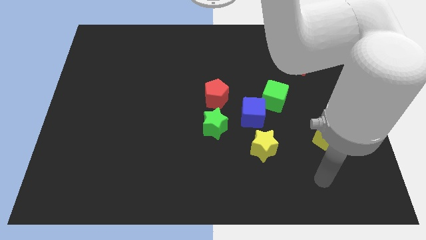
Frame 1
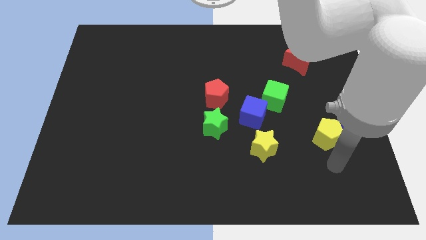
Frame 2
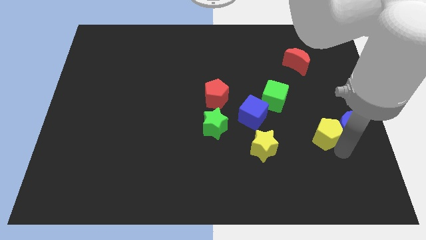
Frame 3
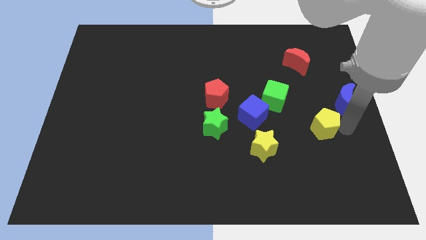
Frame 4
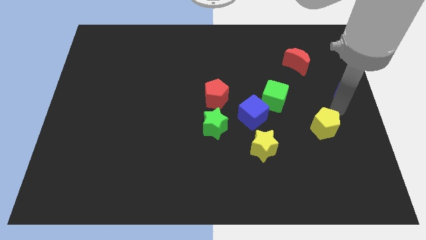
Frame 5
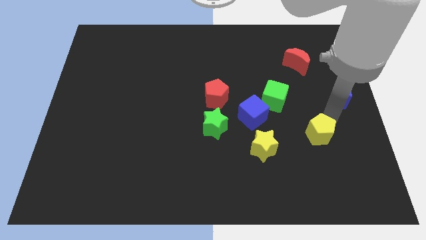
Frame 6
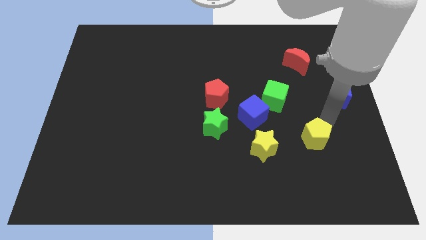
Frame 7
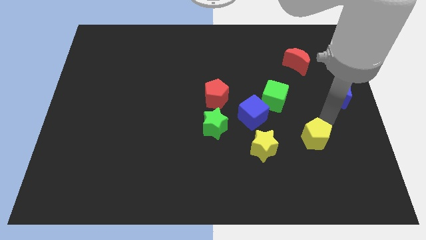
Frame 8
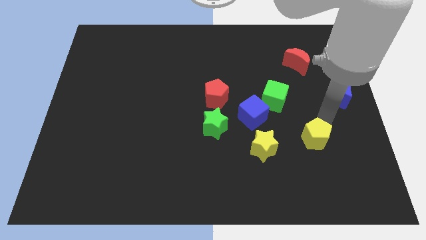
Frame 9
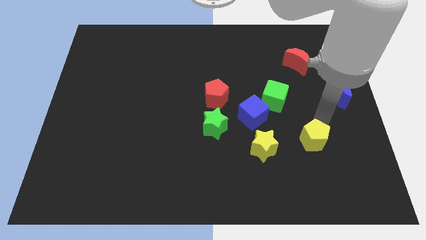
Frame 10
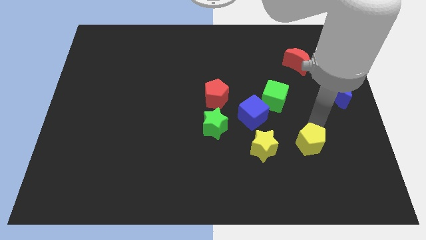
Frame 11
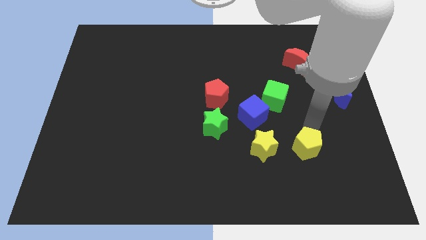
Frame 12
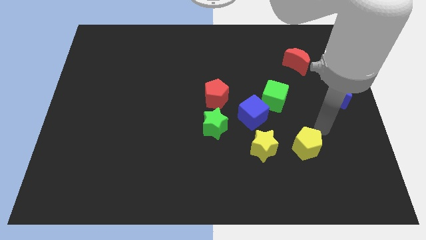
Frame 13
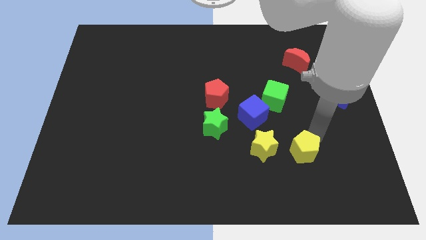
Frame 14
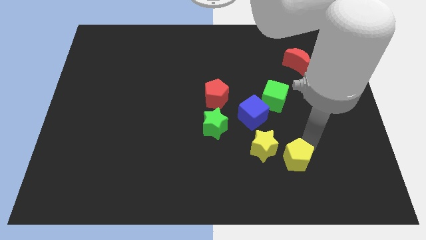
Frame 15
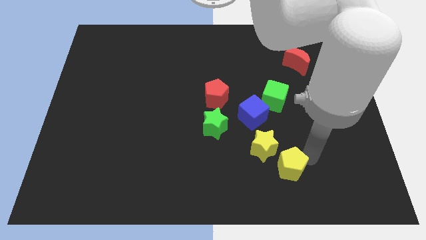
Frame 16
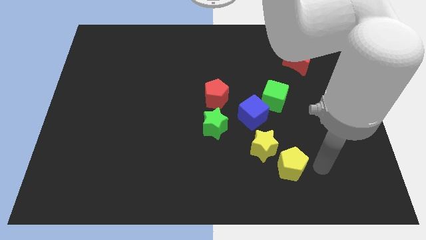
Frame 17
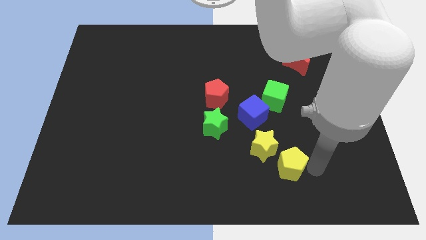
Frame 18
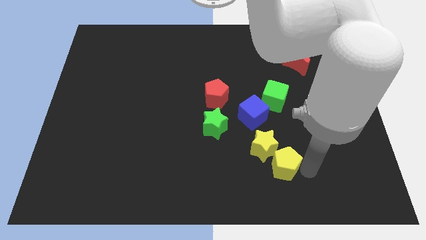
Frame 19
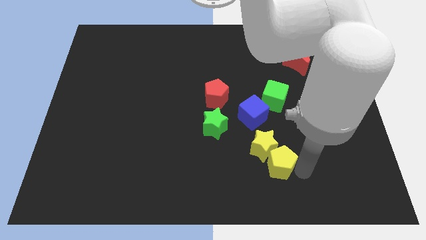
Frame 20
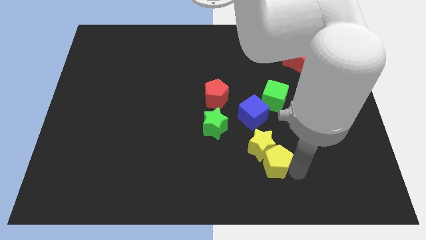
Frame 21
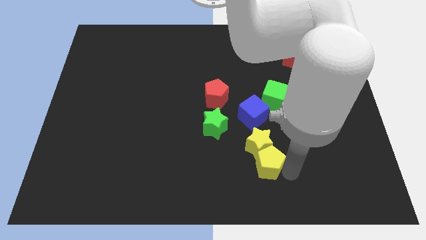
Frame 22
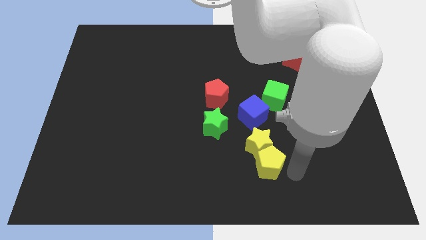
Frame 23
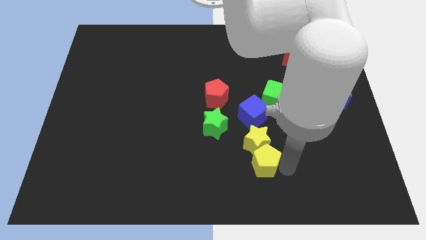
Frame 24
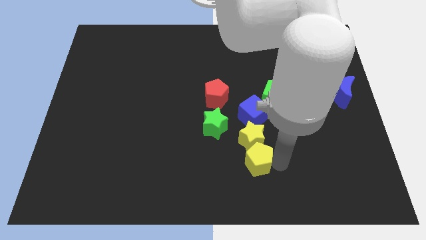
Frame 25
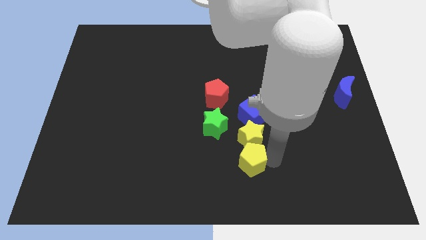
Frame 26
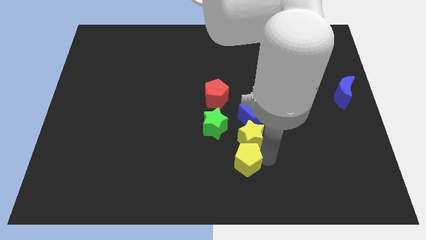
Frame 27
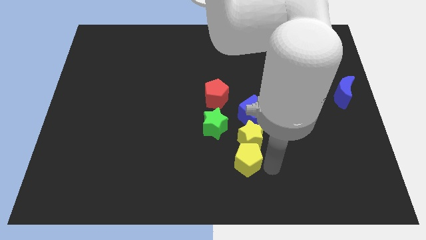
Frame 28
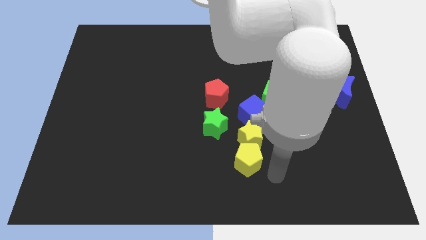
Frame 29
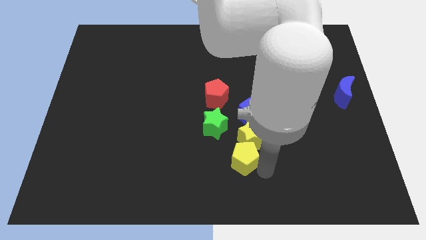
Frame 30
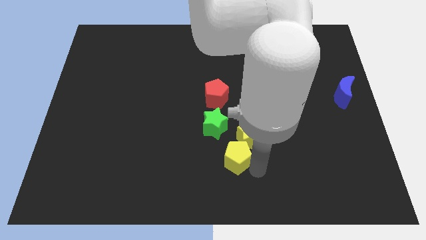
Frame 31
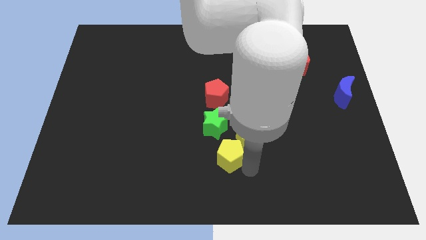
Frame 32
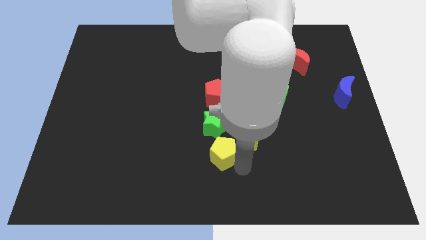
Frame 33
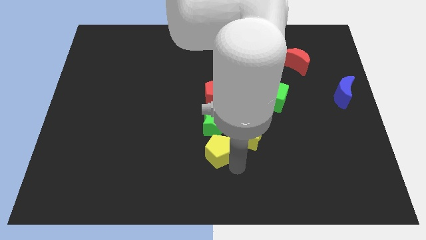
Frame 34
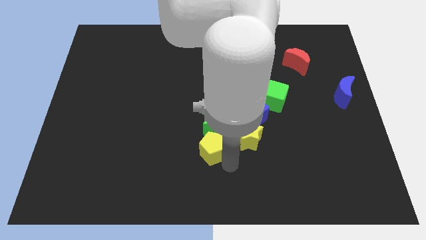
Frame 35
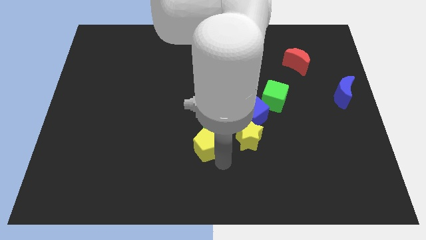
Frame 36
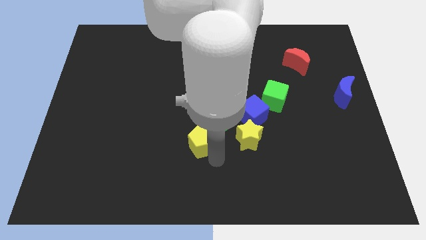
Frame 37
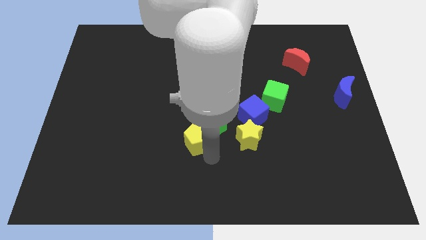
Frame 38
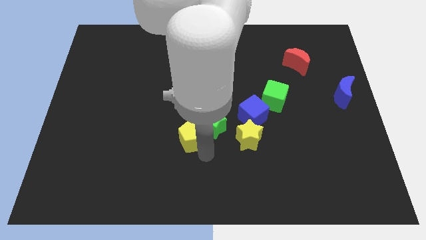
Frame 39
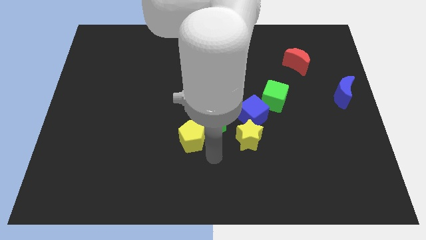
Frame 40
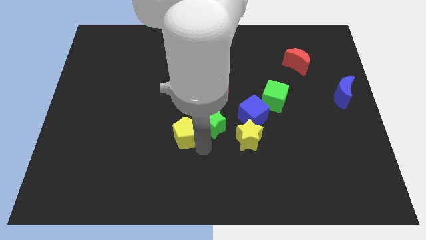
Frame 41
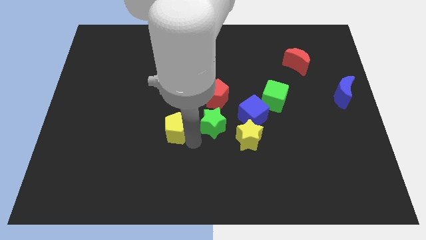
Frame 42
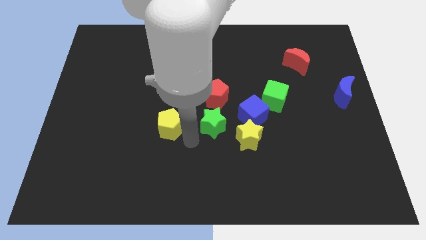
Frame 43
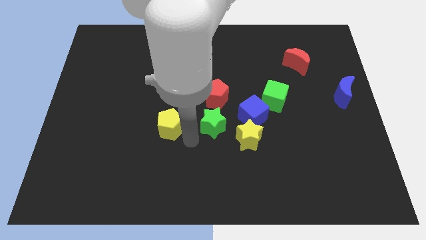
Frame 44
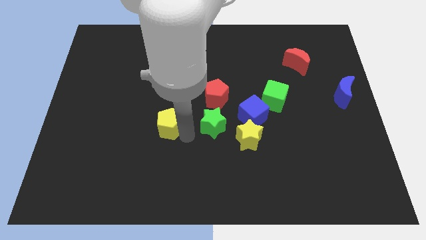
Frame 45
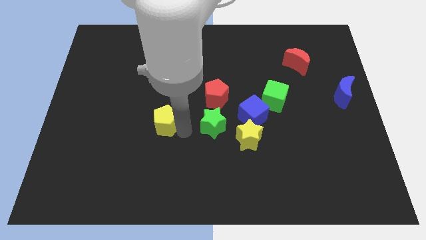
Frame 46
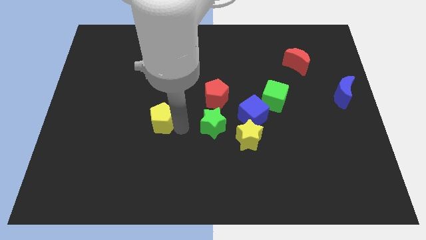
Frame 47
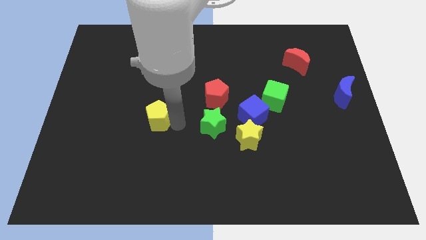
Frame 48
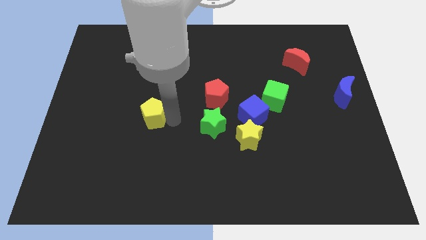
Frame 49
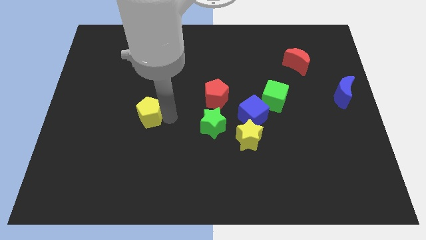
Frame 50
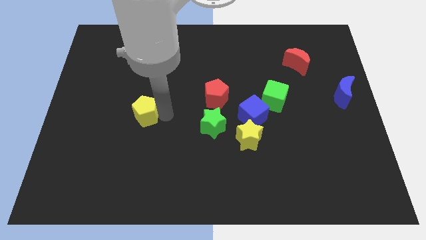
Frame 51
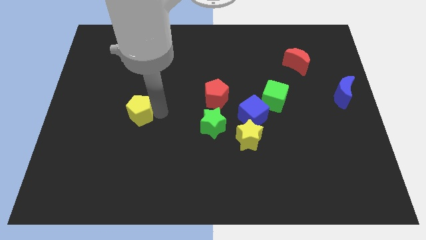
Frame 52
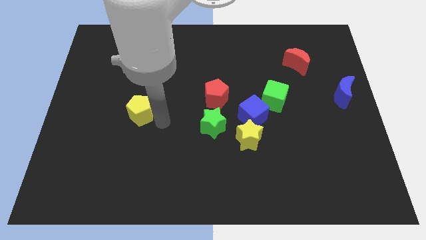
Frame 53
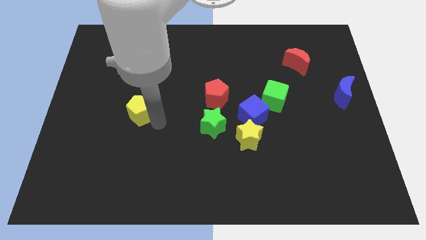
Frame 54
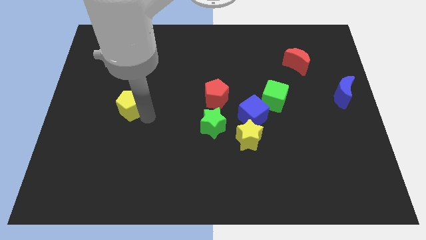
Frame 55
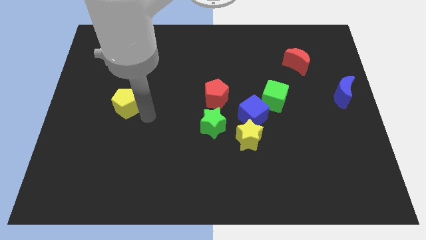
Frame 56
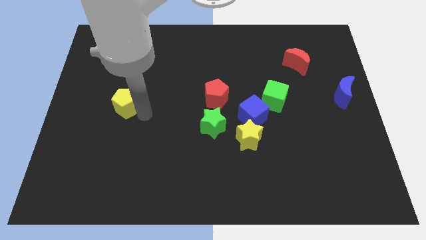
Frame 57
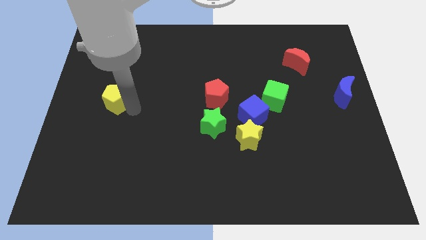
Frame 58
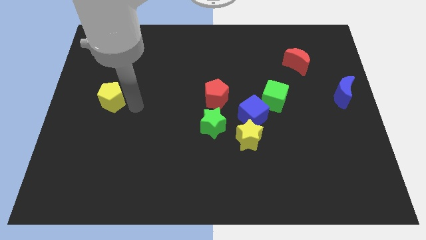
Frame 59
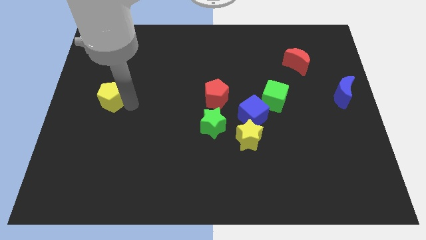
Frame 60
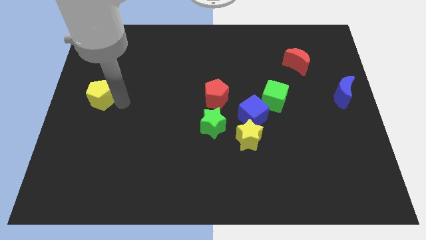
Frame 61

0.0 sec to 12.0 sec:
put the yellow pentagon to the left side of the board
